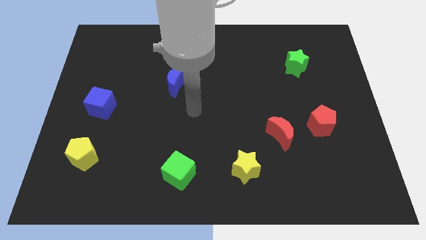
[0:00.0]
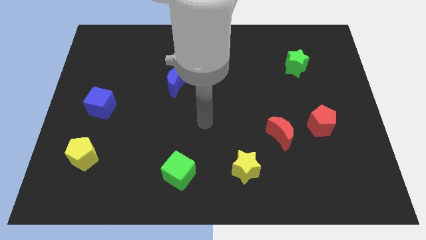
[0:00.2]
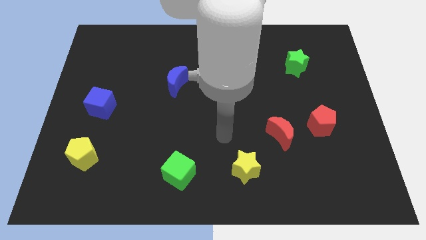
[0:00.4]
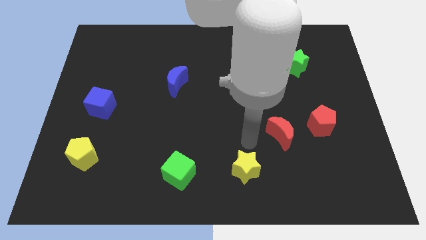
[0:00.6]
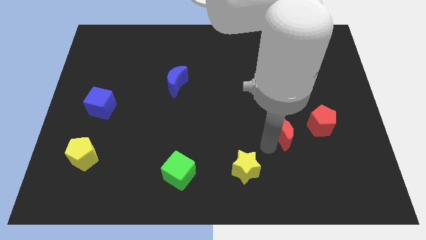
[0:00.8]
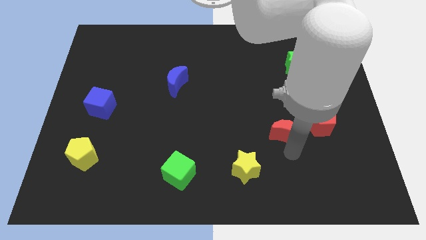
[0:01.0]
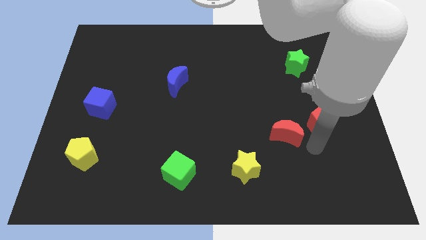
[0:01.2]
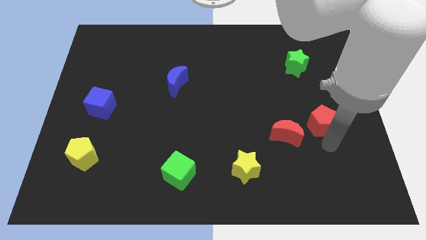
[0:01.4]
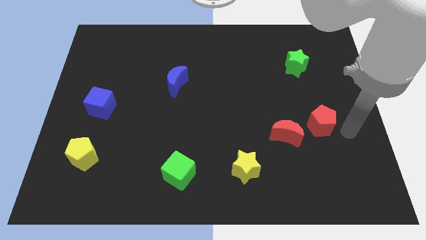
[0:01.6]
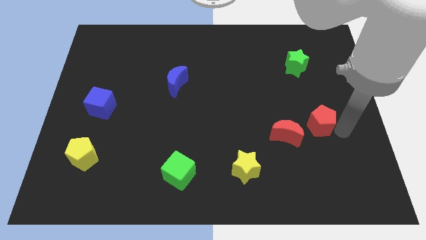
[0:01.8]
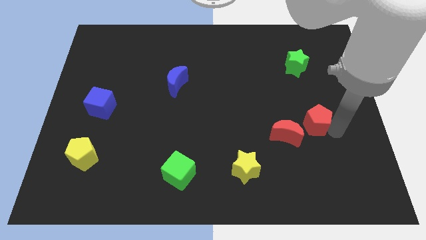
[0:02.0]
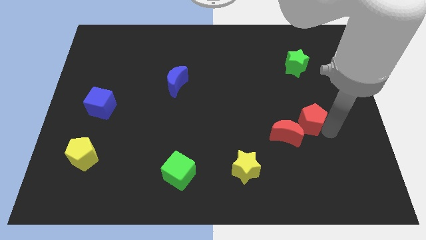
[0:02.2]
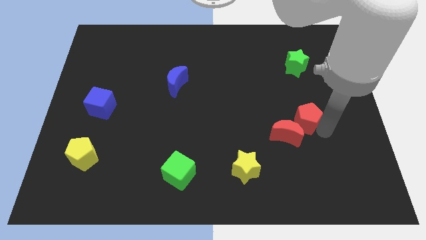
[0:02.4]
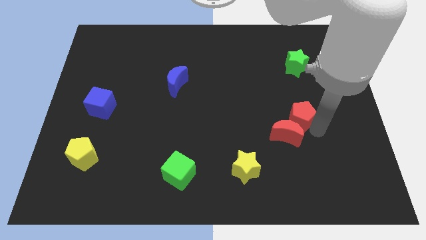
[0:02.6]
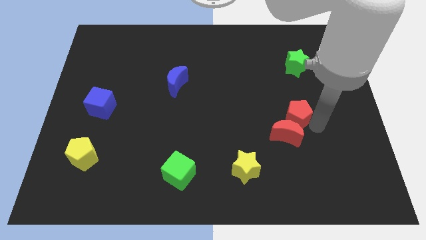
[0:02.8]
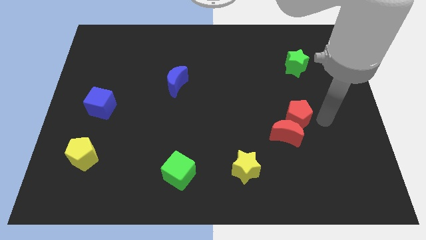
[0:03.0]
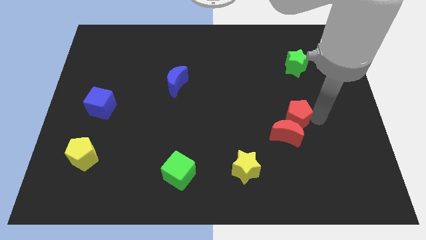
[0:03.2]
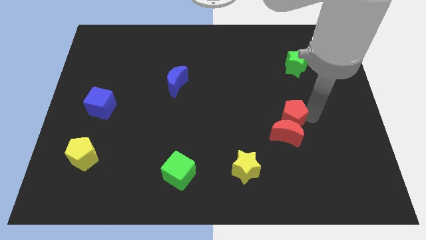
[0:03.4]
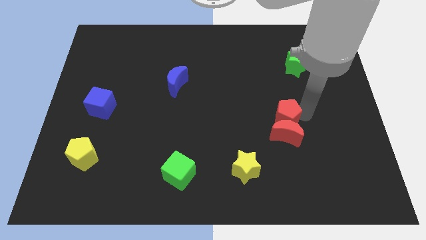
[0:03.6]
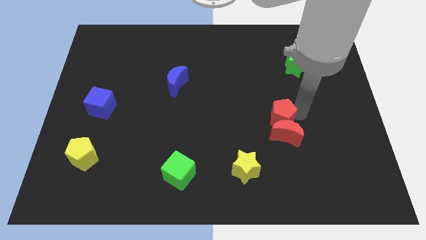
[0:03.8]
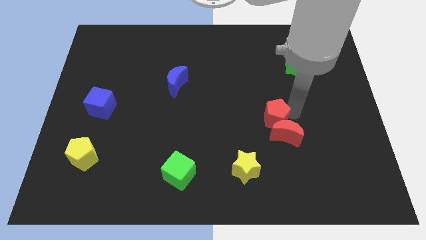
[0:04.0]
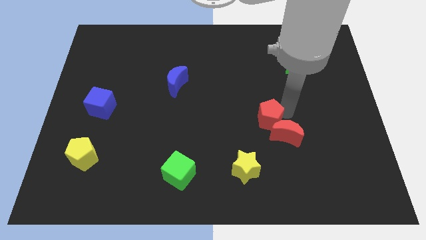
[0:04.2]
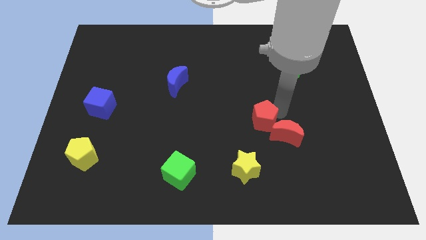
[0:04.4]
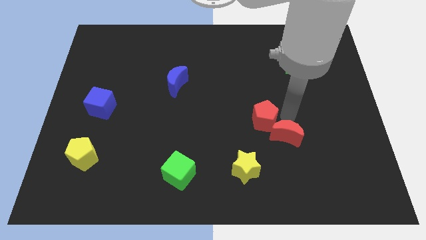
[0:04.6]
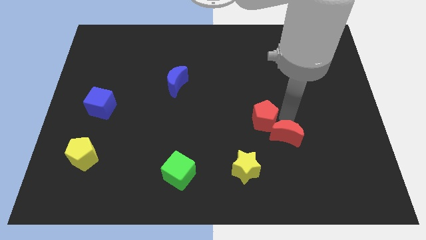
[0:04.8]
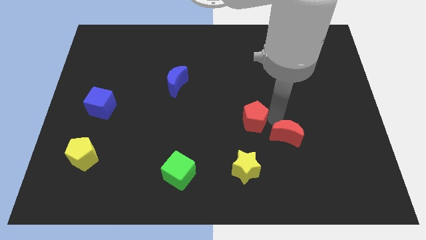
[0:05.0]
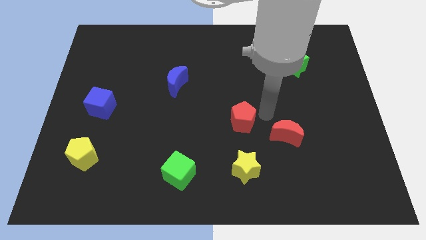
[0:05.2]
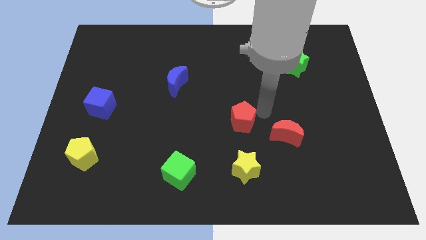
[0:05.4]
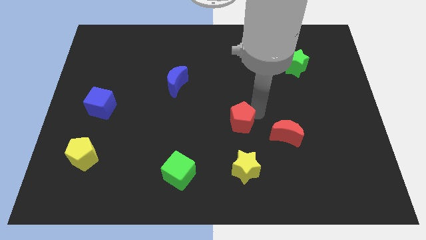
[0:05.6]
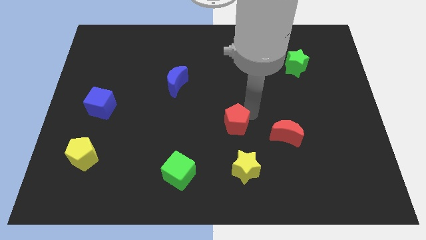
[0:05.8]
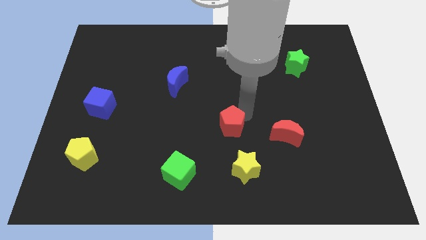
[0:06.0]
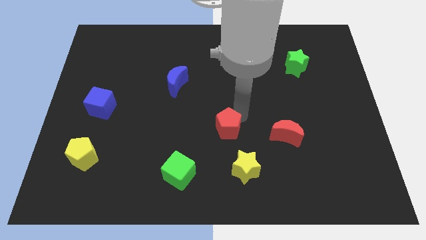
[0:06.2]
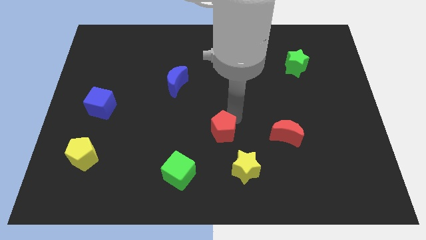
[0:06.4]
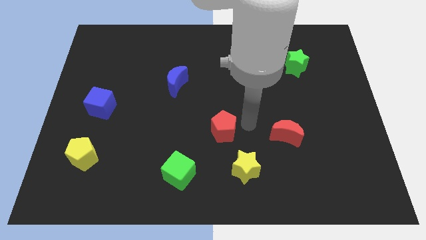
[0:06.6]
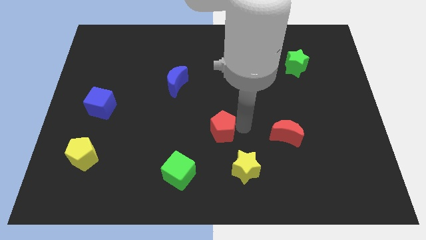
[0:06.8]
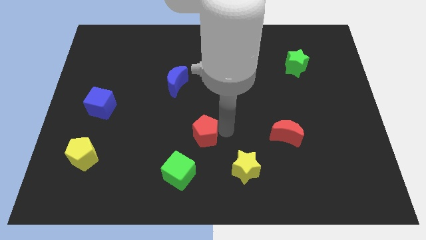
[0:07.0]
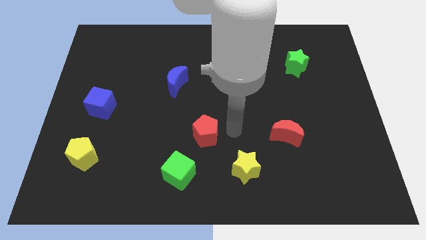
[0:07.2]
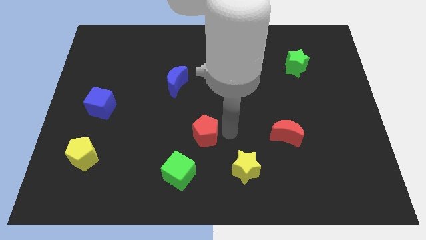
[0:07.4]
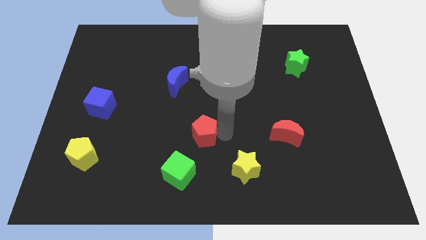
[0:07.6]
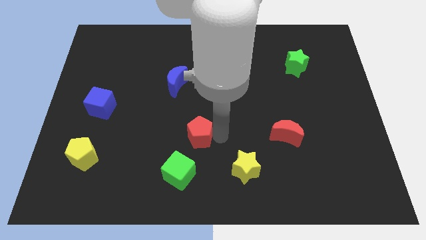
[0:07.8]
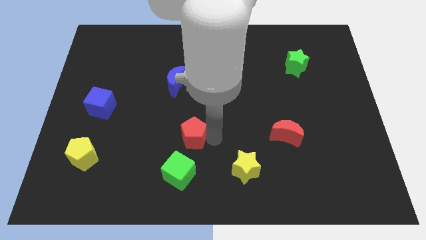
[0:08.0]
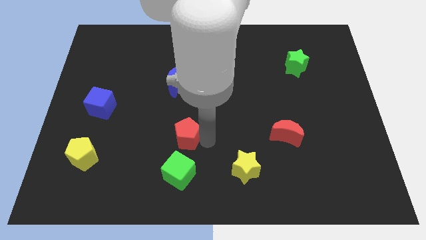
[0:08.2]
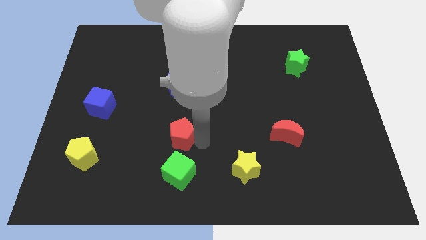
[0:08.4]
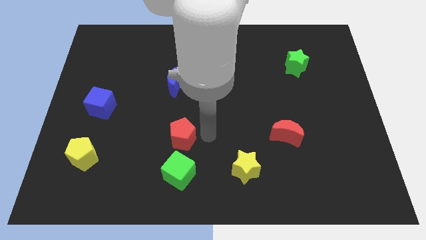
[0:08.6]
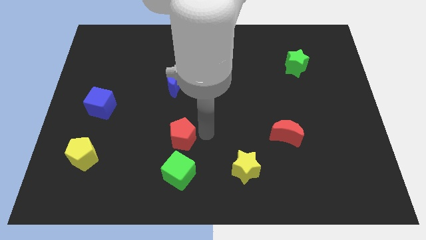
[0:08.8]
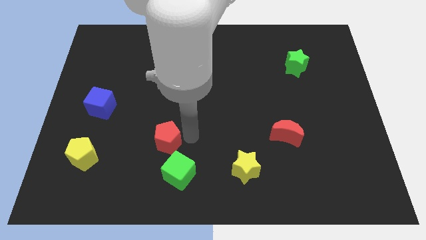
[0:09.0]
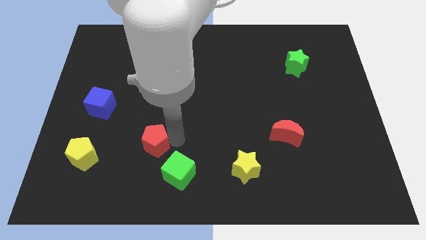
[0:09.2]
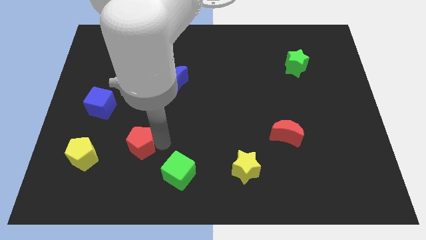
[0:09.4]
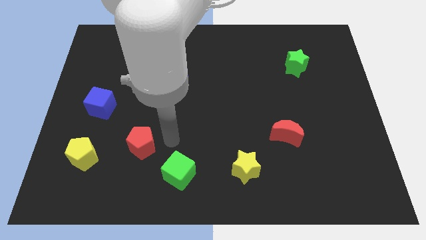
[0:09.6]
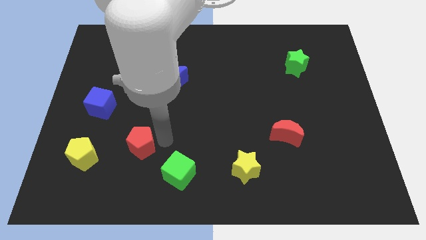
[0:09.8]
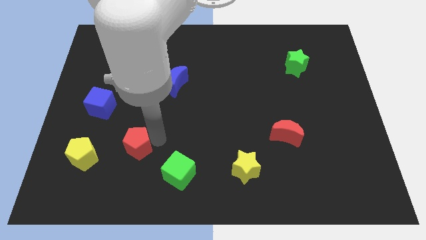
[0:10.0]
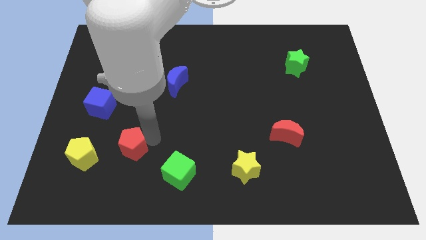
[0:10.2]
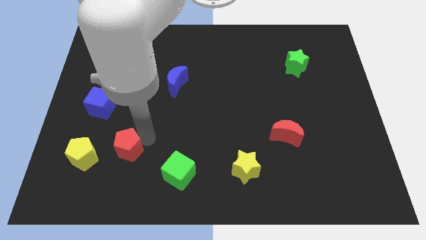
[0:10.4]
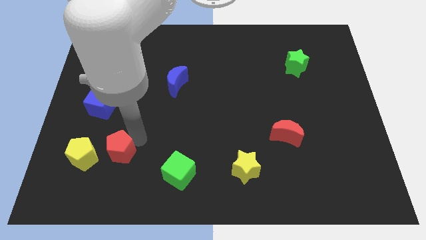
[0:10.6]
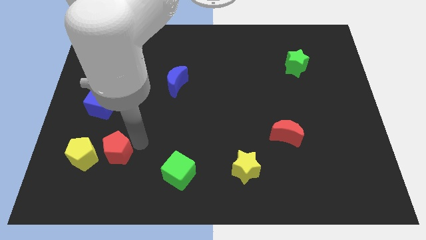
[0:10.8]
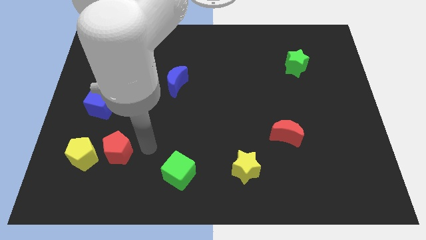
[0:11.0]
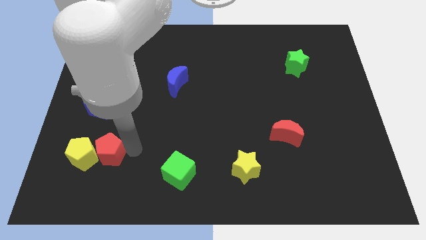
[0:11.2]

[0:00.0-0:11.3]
slide the red pentagon next to the yellow pentagon
